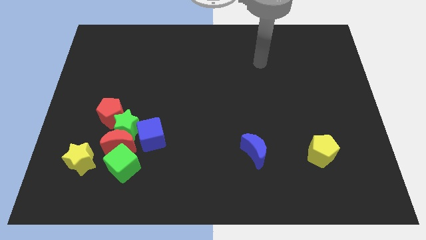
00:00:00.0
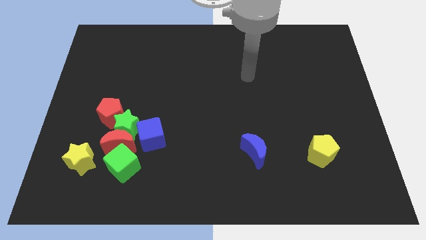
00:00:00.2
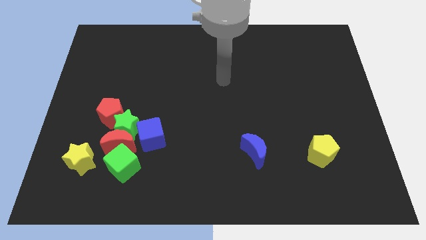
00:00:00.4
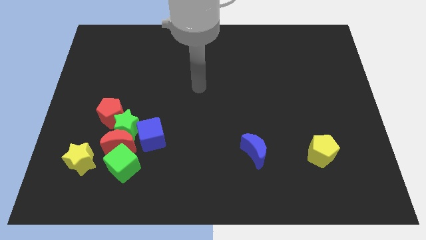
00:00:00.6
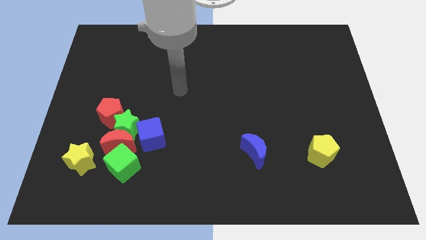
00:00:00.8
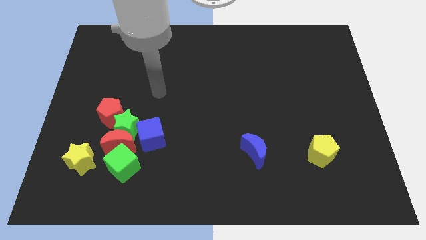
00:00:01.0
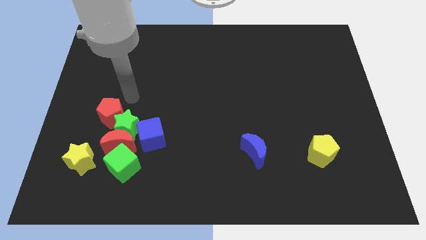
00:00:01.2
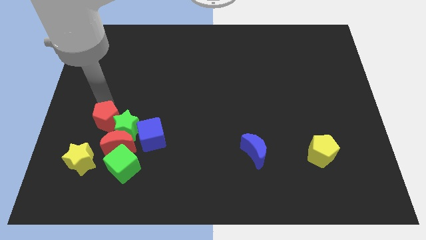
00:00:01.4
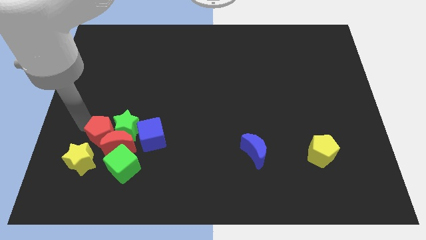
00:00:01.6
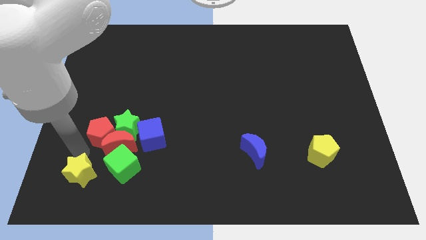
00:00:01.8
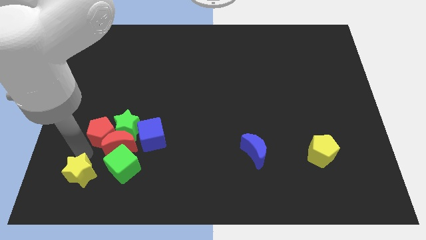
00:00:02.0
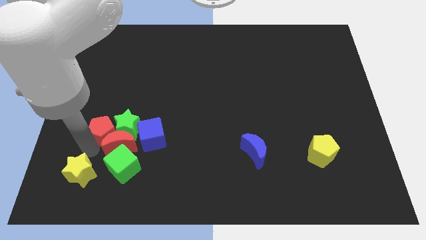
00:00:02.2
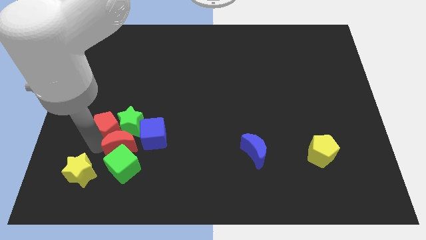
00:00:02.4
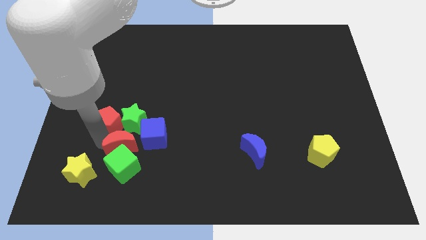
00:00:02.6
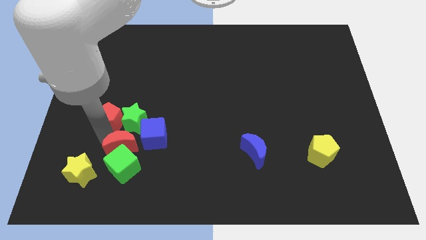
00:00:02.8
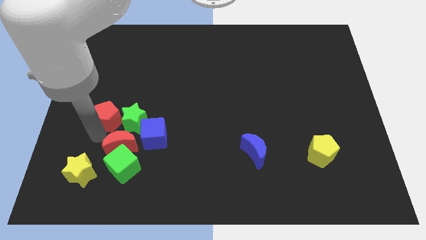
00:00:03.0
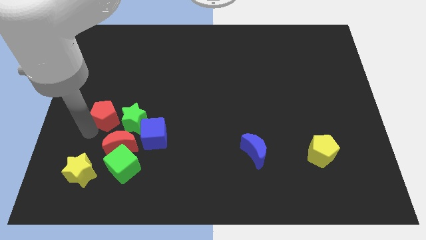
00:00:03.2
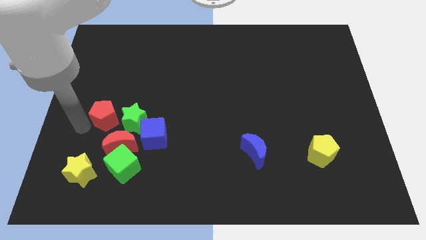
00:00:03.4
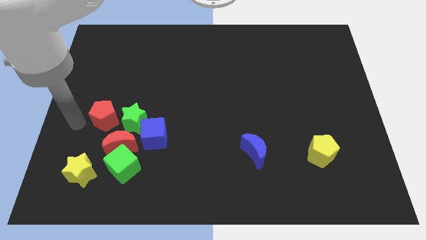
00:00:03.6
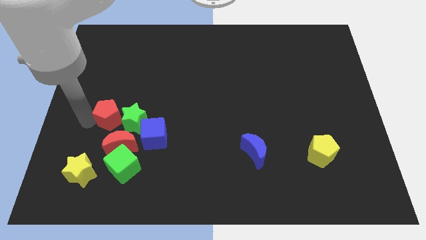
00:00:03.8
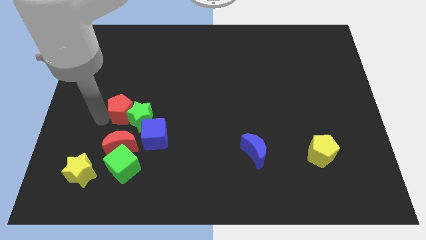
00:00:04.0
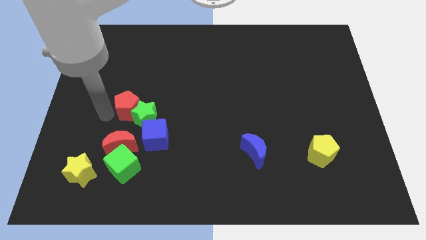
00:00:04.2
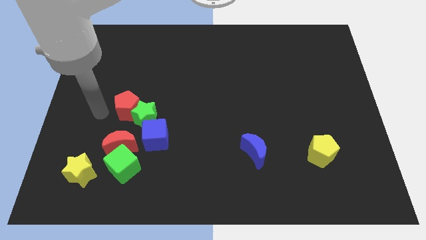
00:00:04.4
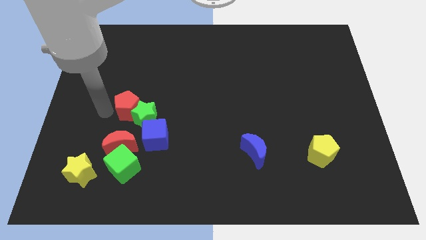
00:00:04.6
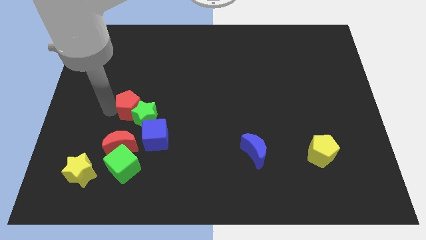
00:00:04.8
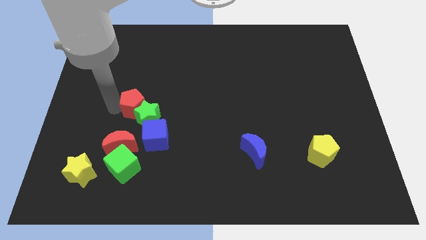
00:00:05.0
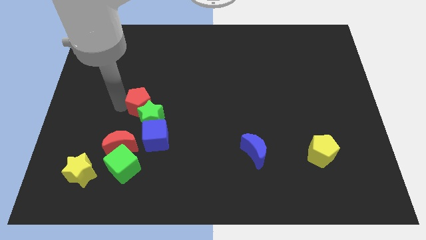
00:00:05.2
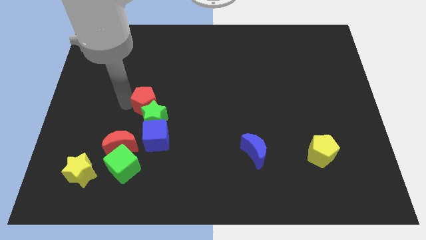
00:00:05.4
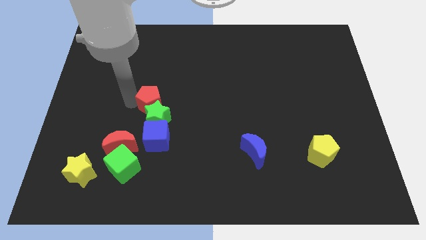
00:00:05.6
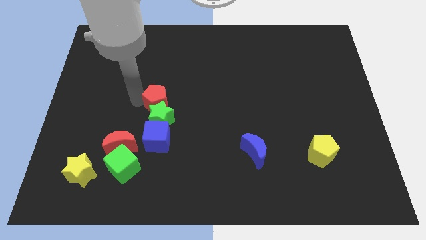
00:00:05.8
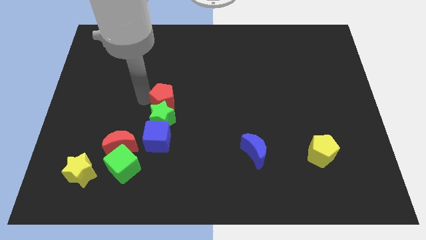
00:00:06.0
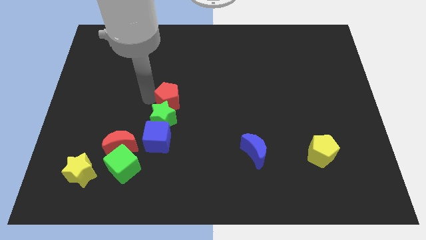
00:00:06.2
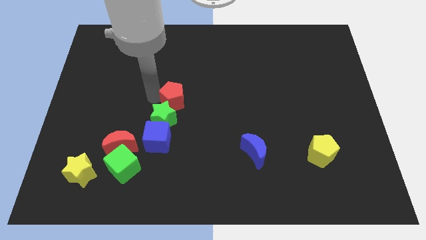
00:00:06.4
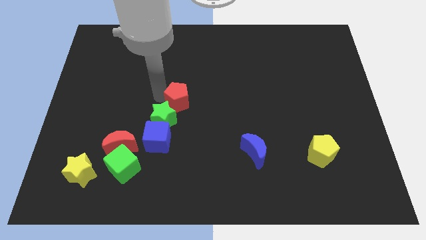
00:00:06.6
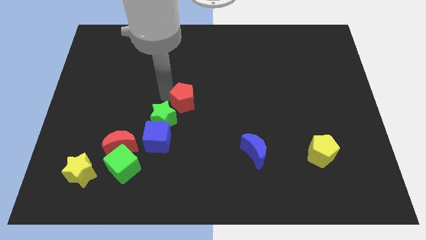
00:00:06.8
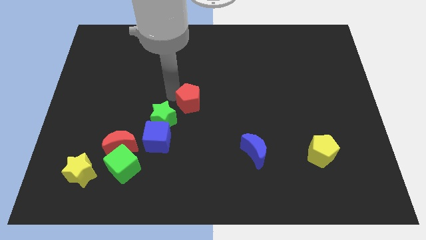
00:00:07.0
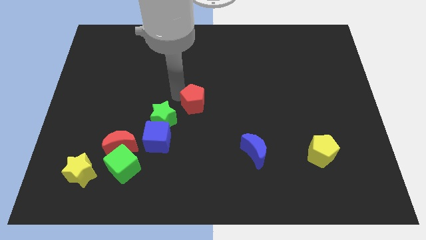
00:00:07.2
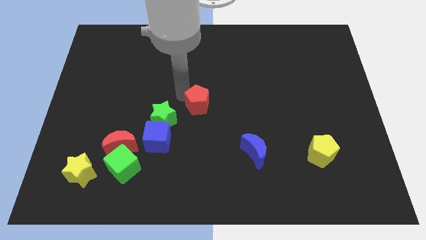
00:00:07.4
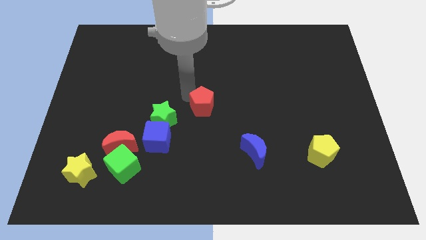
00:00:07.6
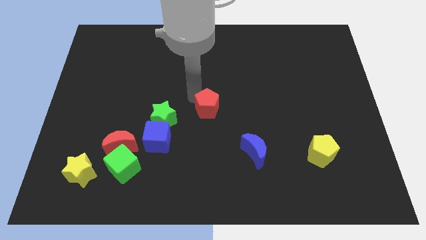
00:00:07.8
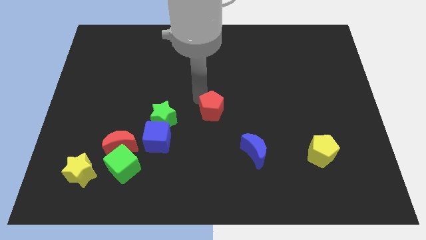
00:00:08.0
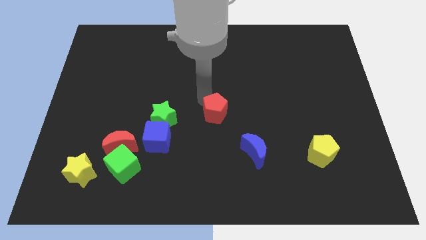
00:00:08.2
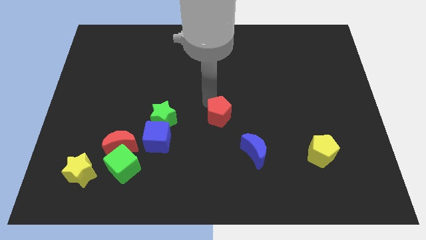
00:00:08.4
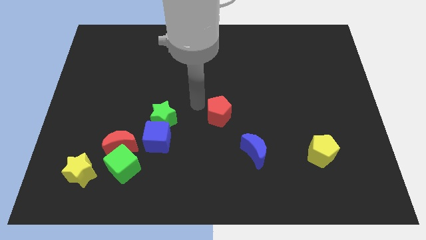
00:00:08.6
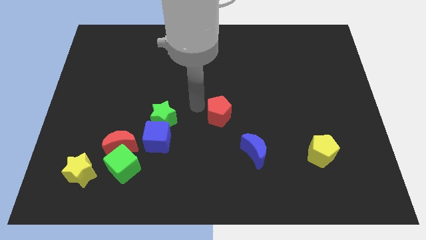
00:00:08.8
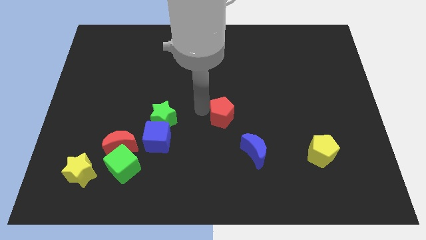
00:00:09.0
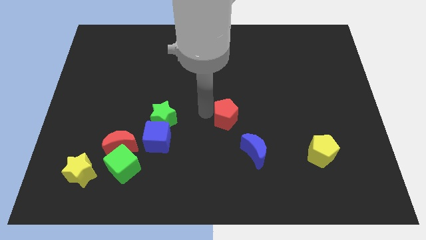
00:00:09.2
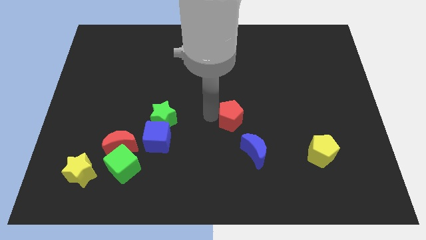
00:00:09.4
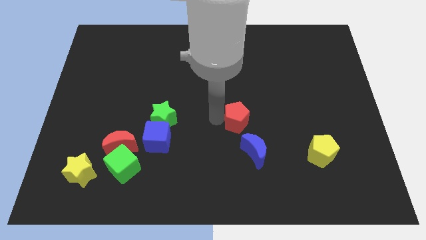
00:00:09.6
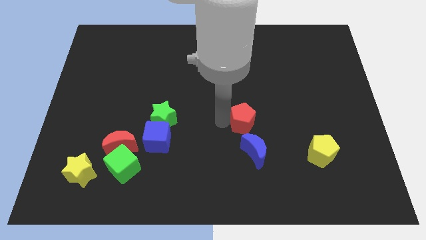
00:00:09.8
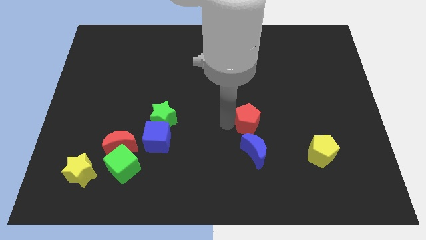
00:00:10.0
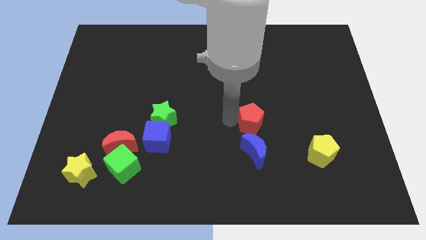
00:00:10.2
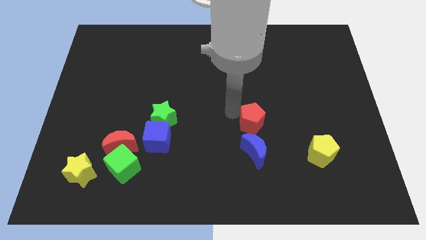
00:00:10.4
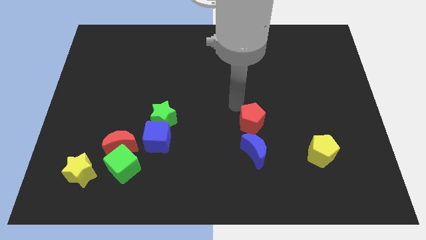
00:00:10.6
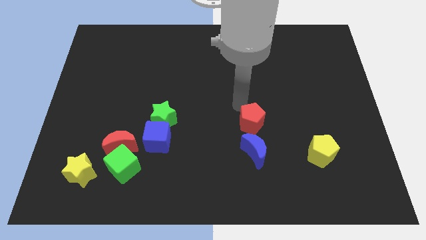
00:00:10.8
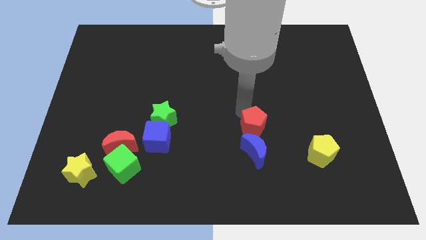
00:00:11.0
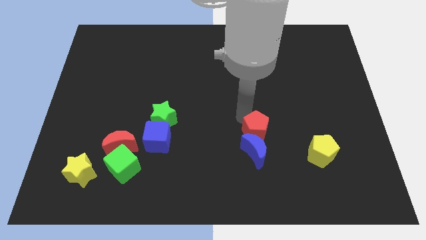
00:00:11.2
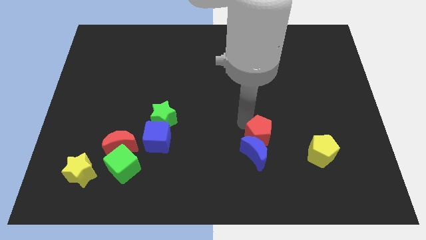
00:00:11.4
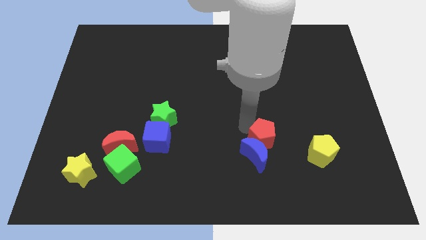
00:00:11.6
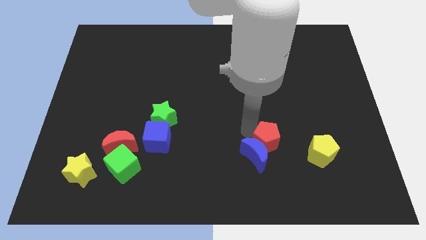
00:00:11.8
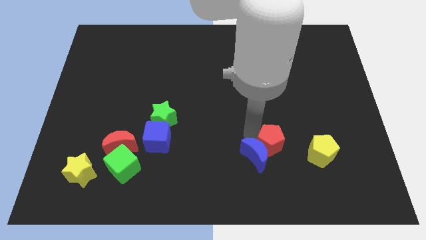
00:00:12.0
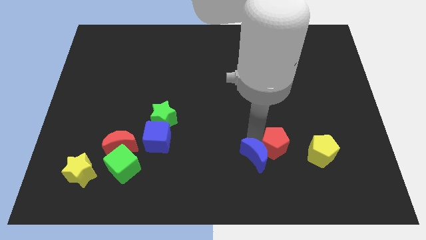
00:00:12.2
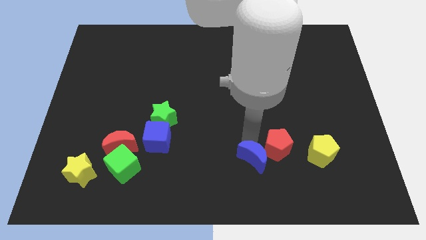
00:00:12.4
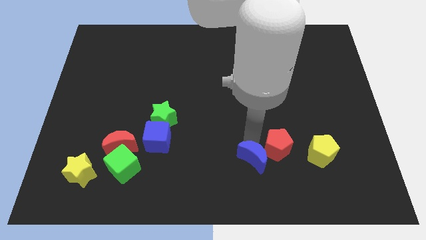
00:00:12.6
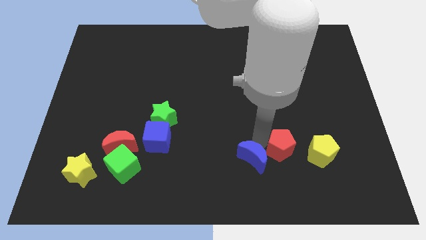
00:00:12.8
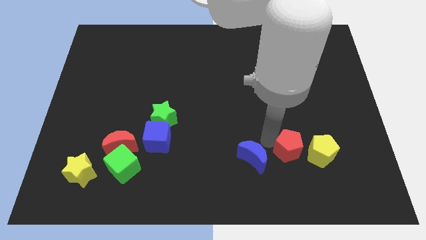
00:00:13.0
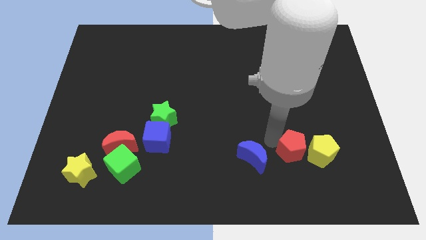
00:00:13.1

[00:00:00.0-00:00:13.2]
put the red pentagon close to the yellow pentagon

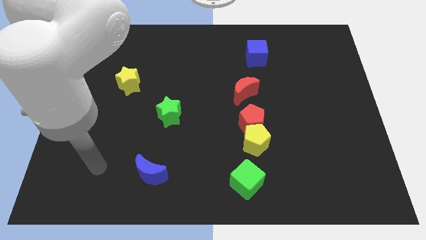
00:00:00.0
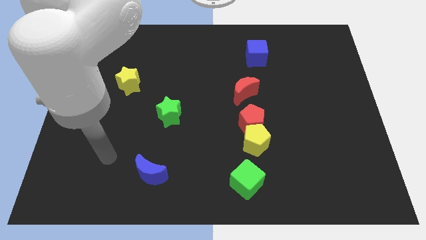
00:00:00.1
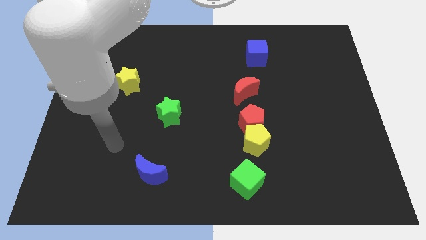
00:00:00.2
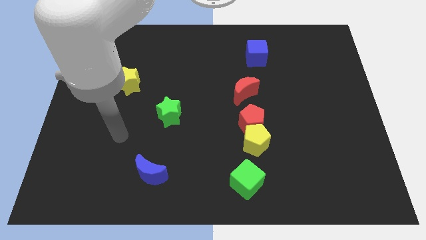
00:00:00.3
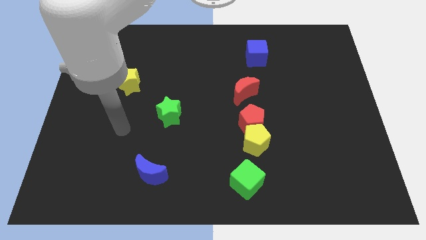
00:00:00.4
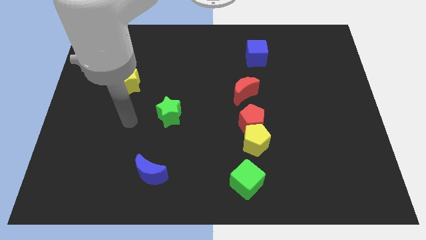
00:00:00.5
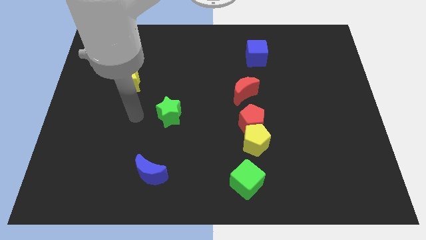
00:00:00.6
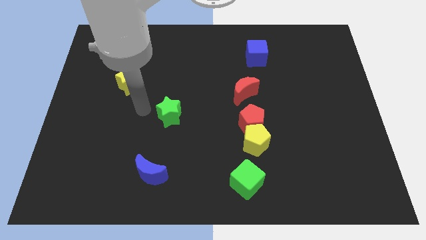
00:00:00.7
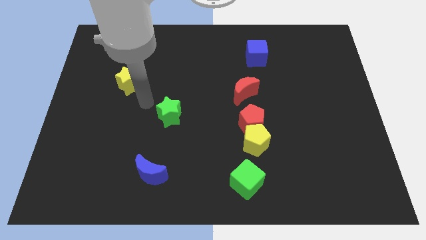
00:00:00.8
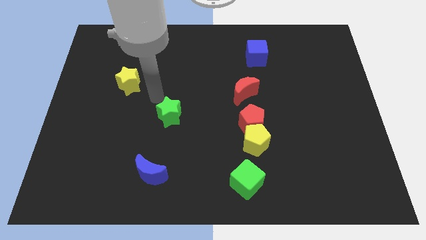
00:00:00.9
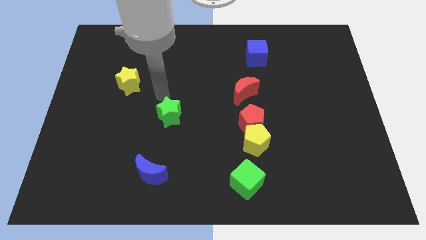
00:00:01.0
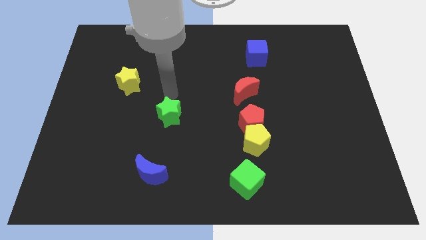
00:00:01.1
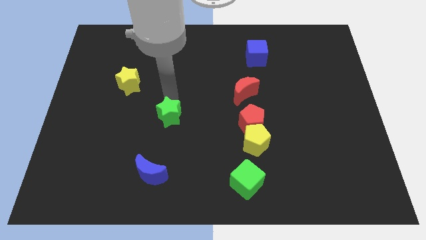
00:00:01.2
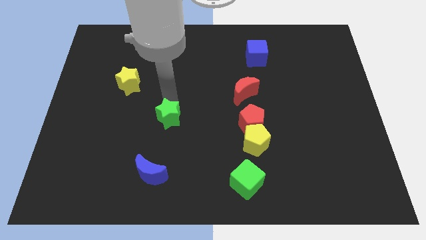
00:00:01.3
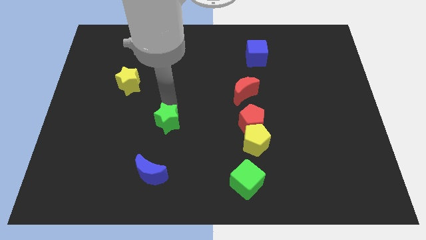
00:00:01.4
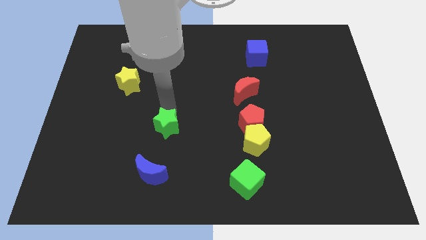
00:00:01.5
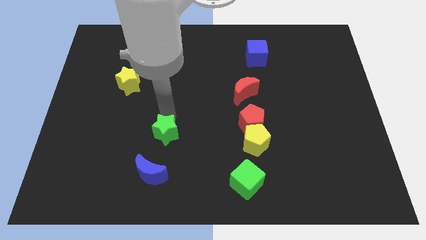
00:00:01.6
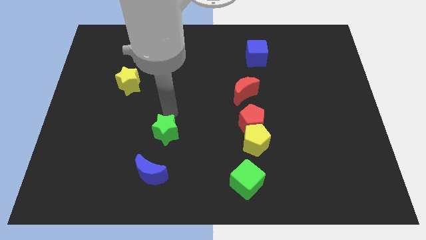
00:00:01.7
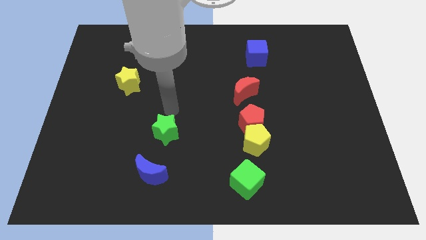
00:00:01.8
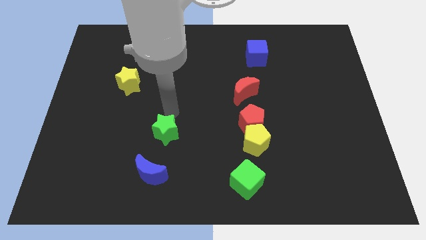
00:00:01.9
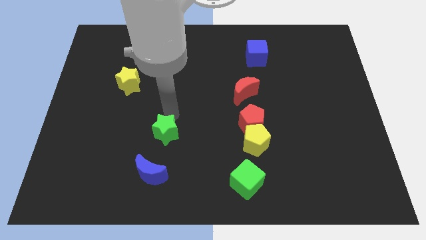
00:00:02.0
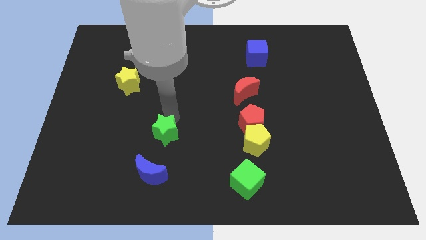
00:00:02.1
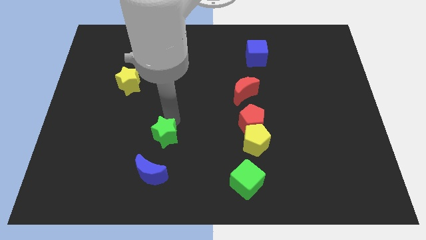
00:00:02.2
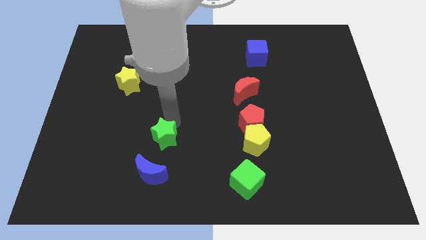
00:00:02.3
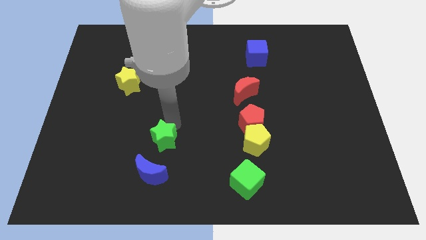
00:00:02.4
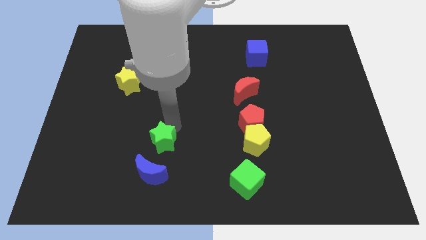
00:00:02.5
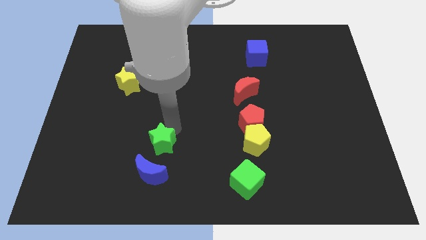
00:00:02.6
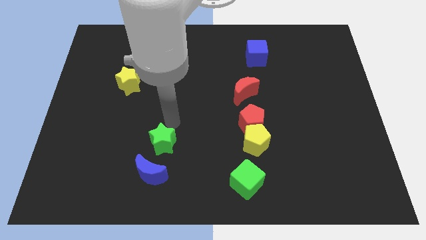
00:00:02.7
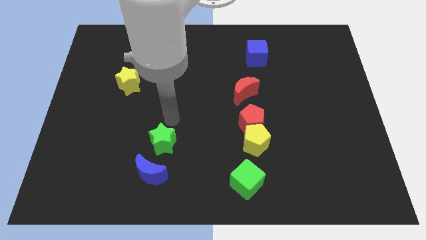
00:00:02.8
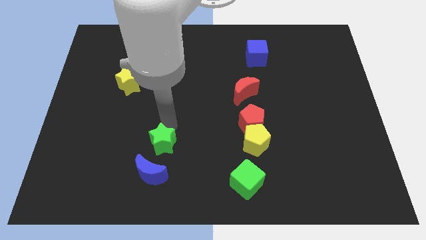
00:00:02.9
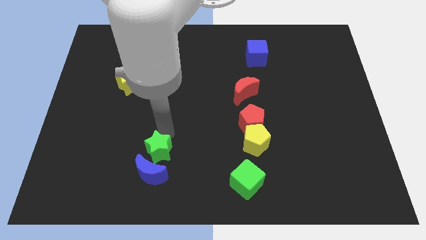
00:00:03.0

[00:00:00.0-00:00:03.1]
put the green star next to the blue moon
